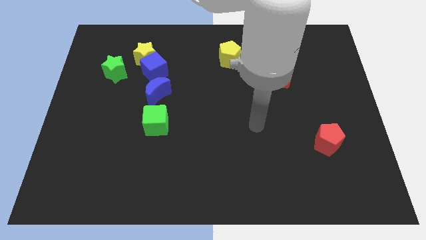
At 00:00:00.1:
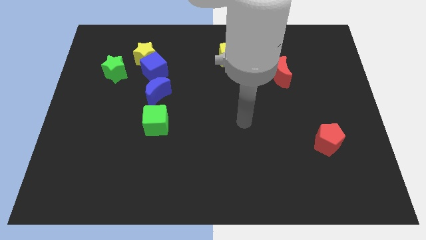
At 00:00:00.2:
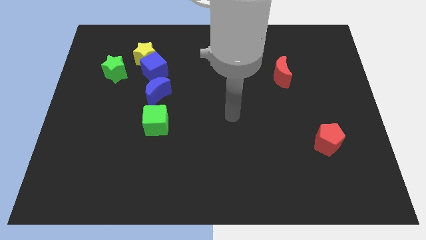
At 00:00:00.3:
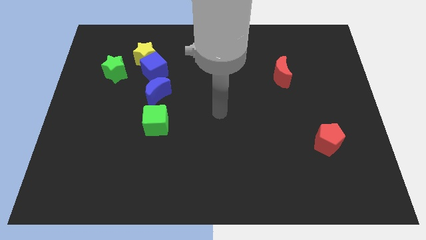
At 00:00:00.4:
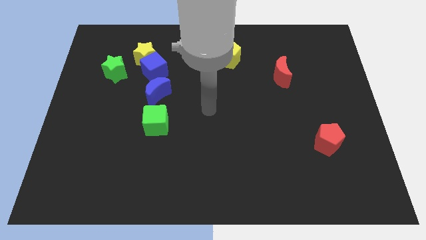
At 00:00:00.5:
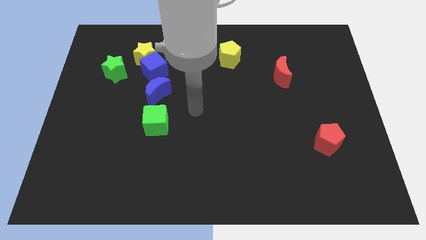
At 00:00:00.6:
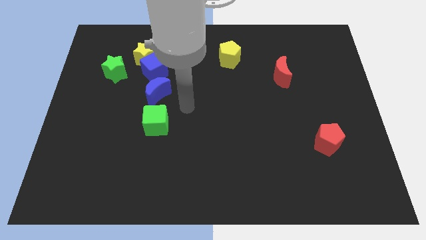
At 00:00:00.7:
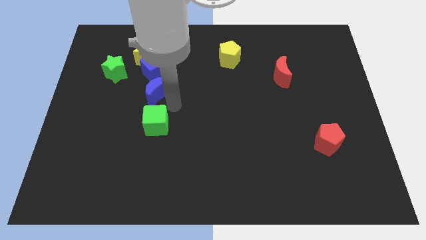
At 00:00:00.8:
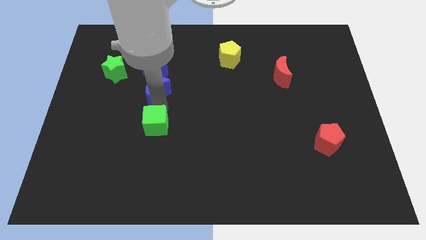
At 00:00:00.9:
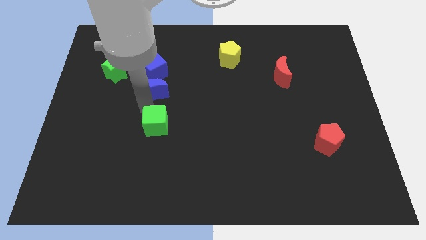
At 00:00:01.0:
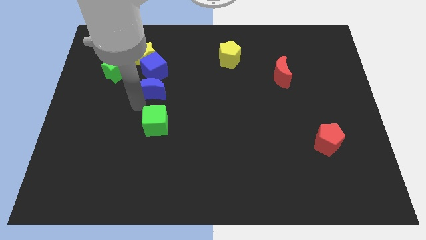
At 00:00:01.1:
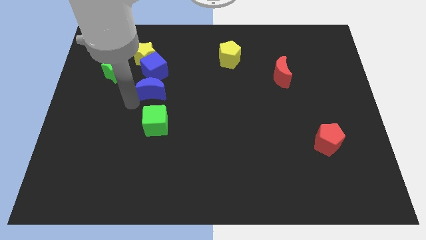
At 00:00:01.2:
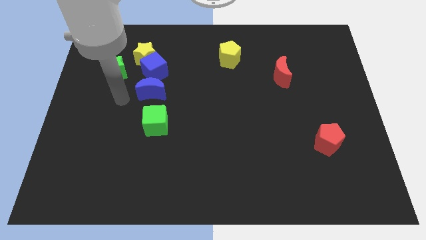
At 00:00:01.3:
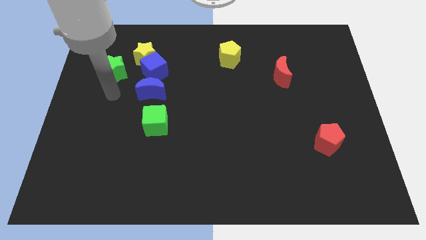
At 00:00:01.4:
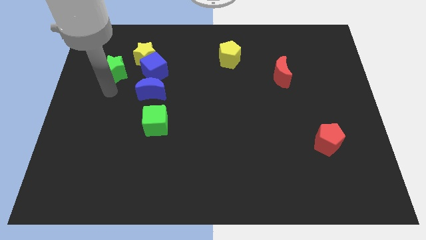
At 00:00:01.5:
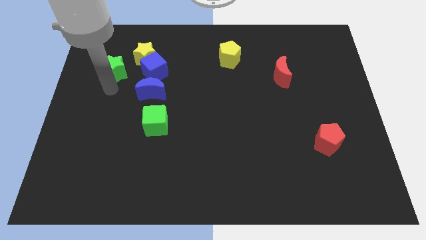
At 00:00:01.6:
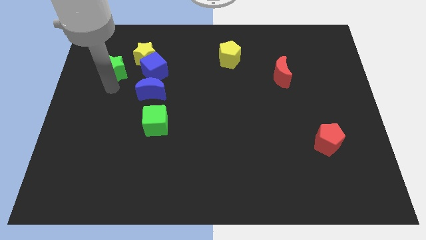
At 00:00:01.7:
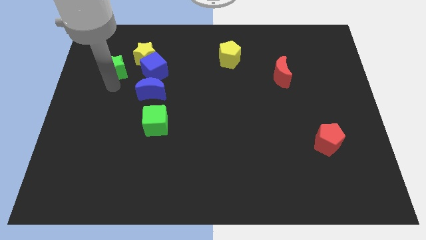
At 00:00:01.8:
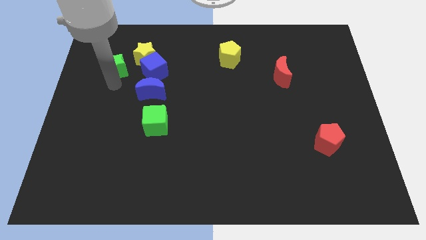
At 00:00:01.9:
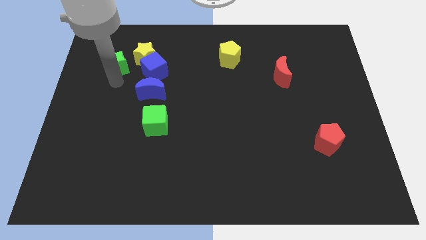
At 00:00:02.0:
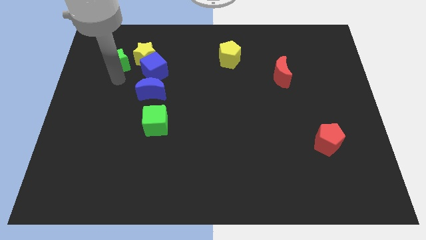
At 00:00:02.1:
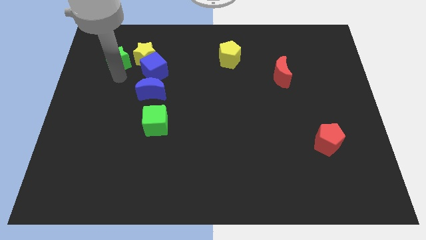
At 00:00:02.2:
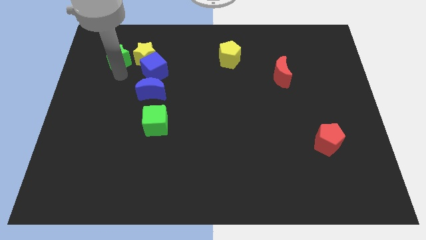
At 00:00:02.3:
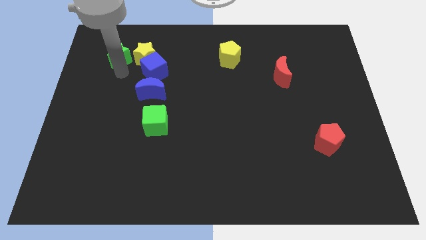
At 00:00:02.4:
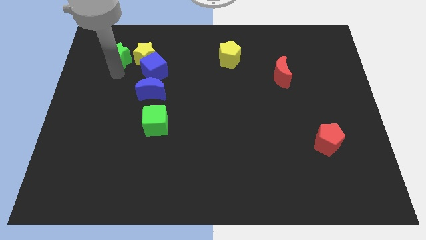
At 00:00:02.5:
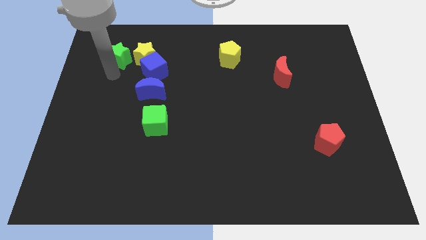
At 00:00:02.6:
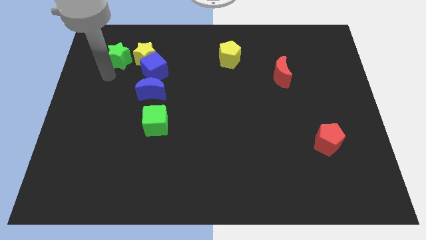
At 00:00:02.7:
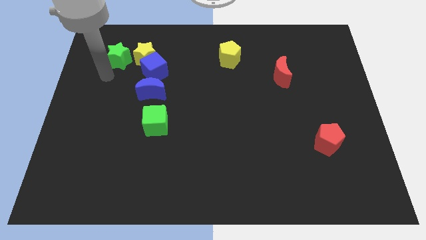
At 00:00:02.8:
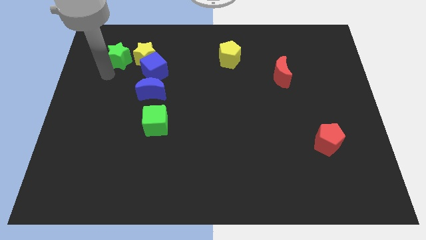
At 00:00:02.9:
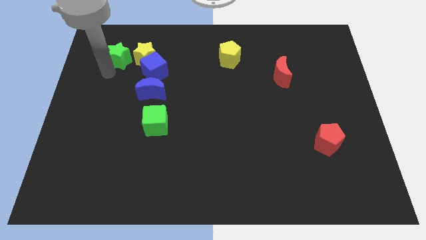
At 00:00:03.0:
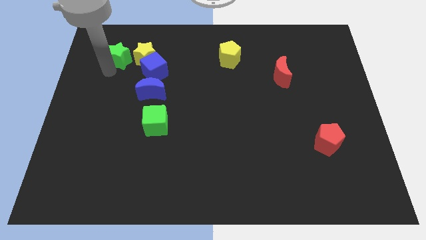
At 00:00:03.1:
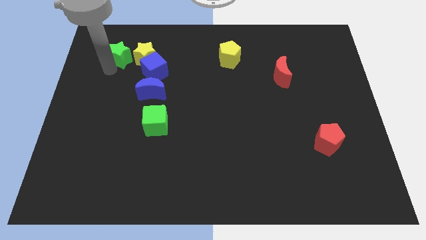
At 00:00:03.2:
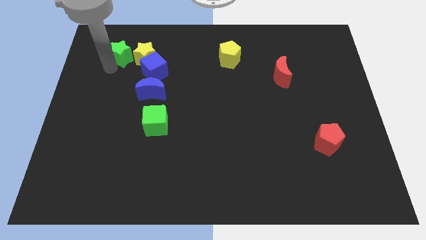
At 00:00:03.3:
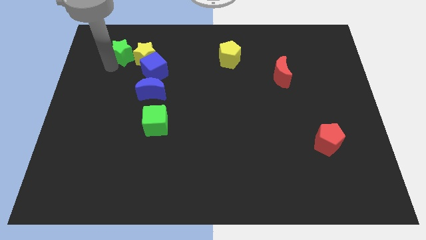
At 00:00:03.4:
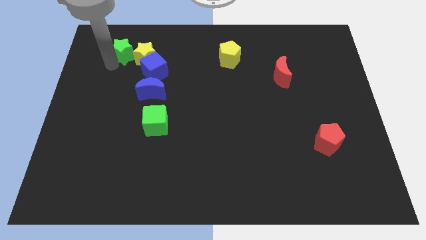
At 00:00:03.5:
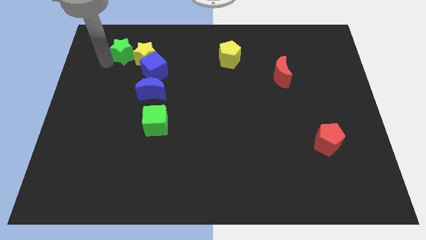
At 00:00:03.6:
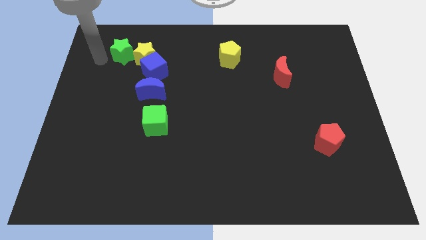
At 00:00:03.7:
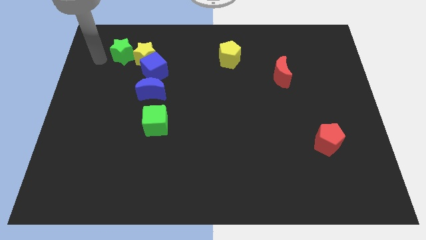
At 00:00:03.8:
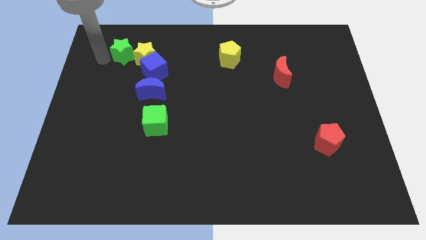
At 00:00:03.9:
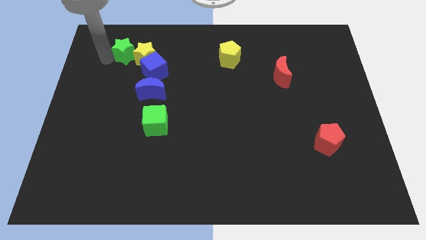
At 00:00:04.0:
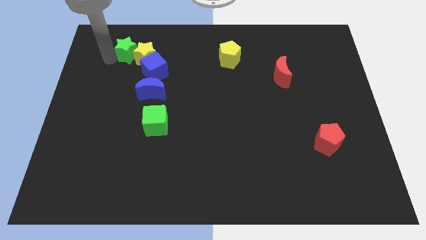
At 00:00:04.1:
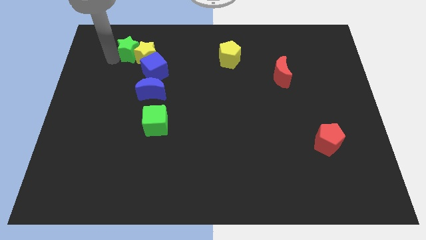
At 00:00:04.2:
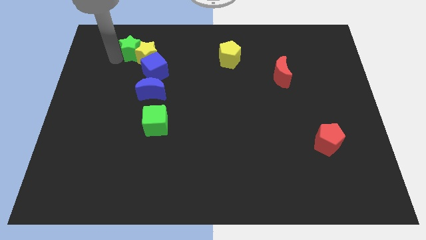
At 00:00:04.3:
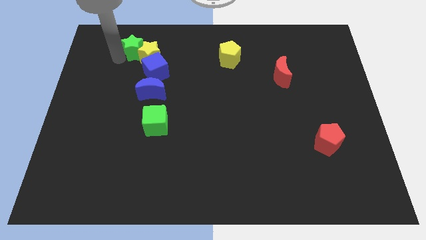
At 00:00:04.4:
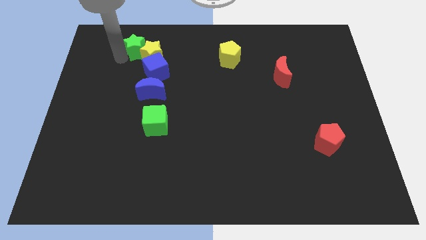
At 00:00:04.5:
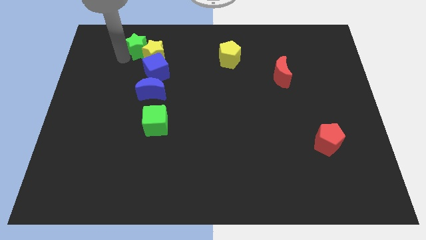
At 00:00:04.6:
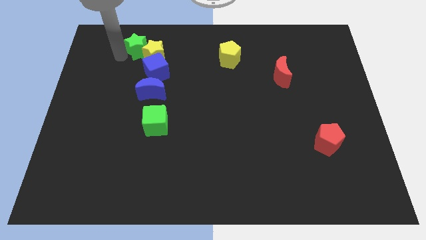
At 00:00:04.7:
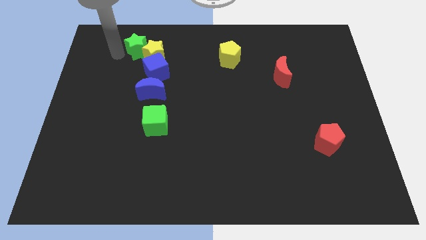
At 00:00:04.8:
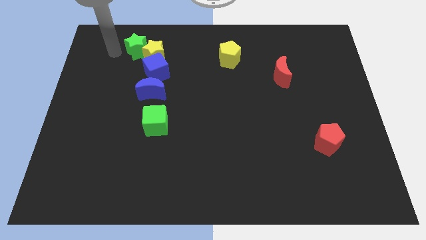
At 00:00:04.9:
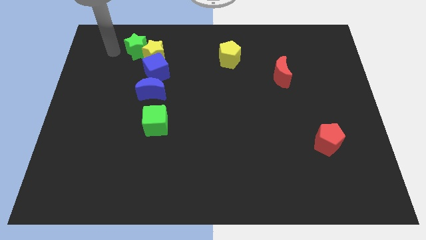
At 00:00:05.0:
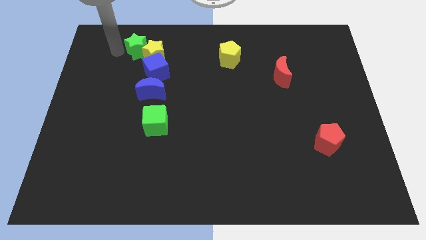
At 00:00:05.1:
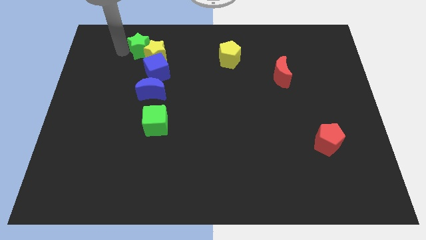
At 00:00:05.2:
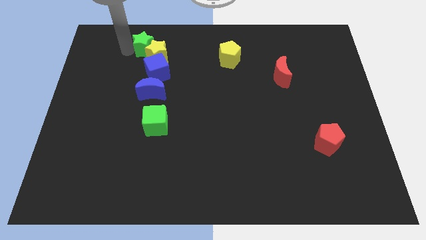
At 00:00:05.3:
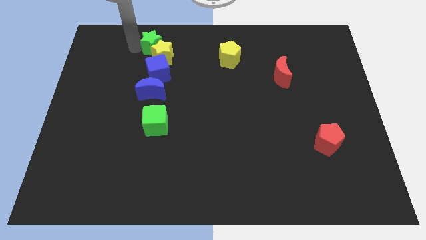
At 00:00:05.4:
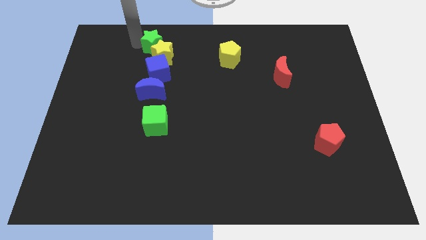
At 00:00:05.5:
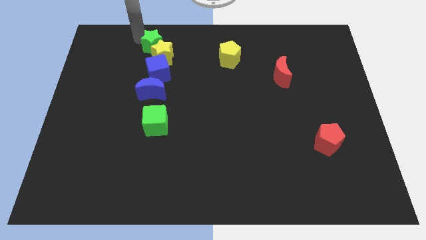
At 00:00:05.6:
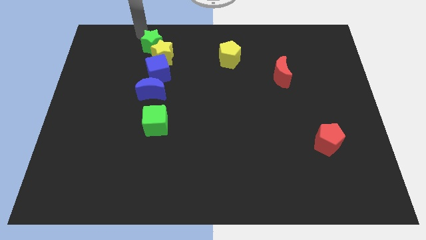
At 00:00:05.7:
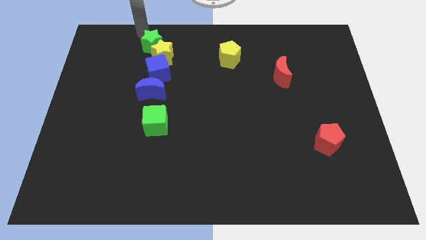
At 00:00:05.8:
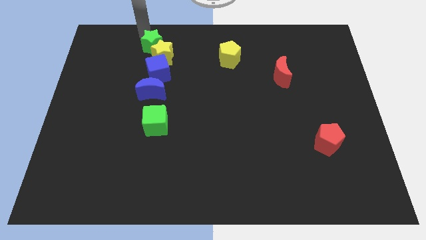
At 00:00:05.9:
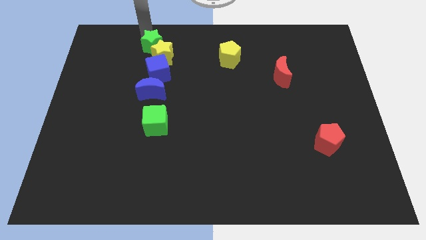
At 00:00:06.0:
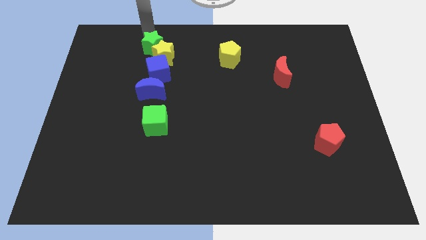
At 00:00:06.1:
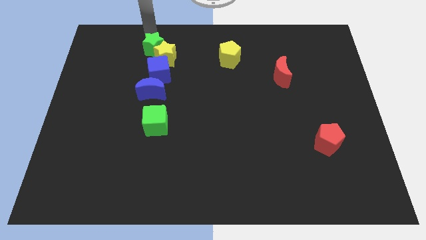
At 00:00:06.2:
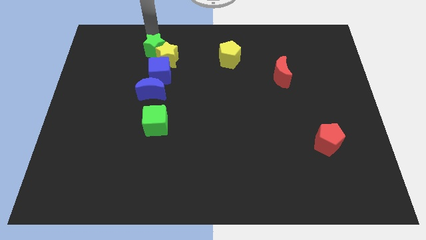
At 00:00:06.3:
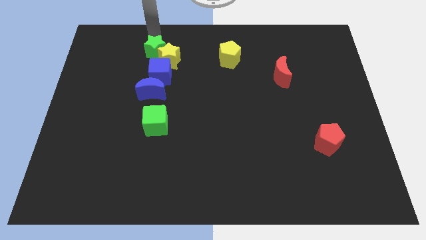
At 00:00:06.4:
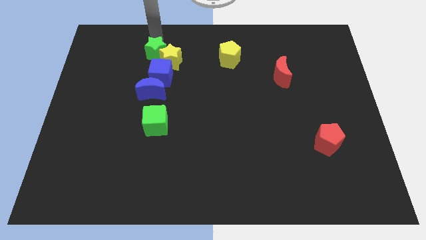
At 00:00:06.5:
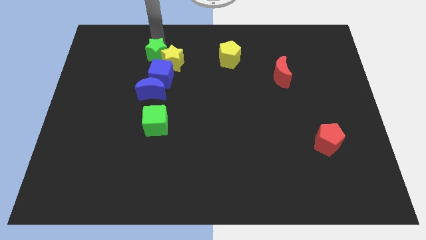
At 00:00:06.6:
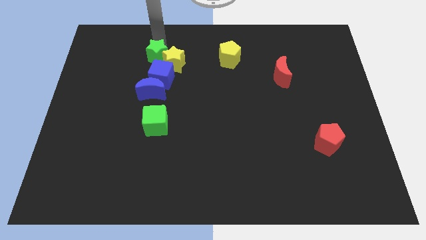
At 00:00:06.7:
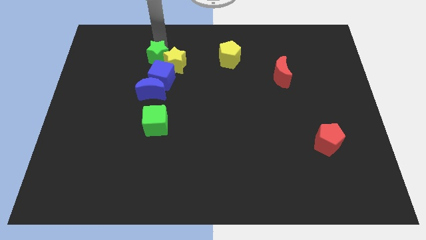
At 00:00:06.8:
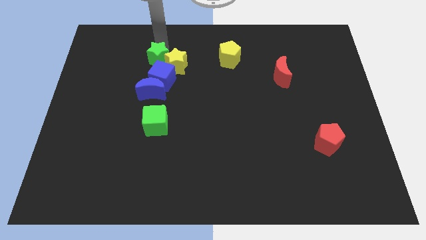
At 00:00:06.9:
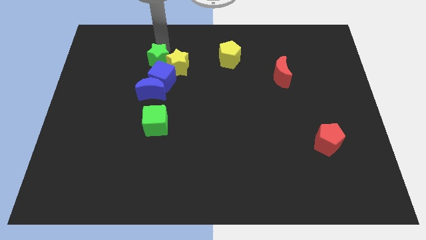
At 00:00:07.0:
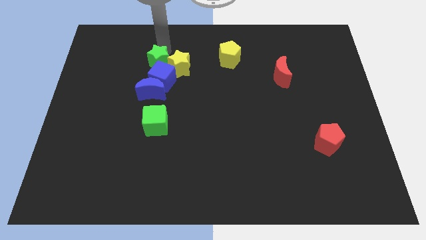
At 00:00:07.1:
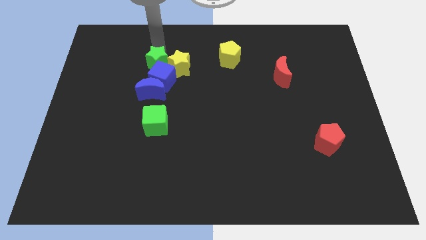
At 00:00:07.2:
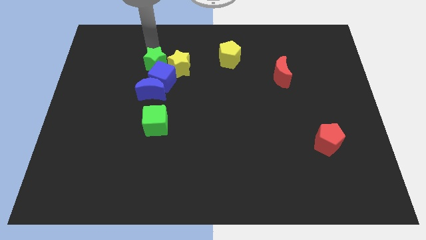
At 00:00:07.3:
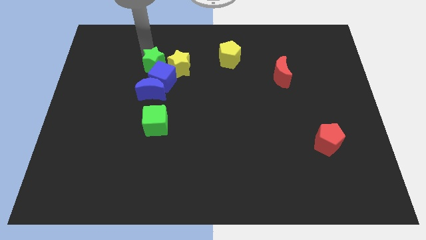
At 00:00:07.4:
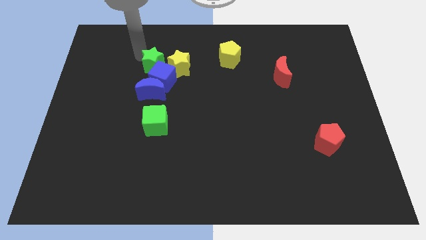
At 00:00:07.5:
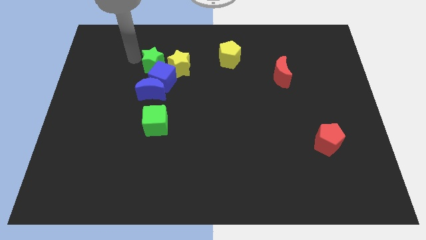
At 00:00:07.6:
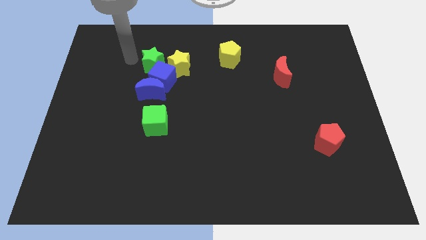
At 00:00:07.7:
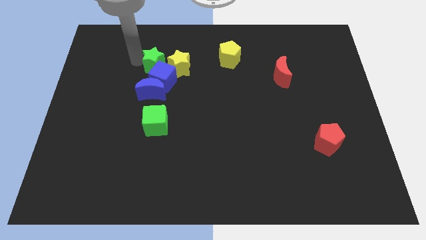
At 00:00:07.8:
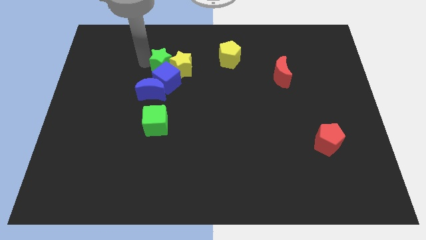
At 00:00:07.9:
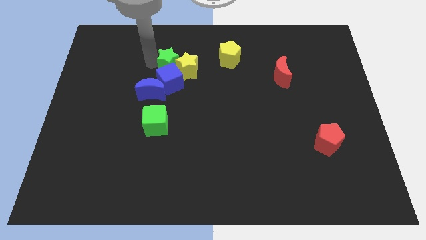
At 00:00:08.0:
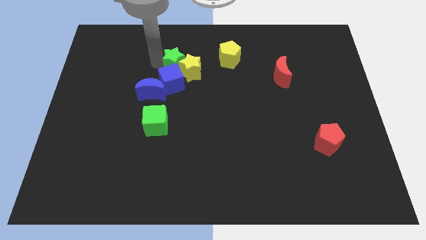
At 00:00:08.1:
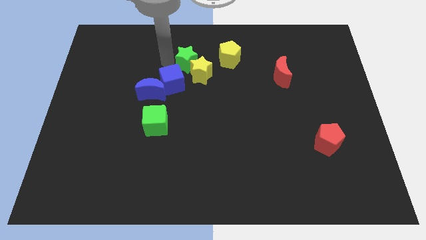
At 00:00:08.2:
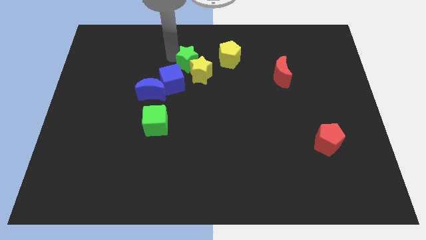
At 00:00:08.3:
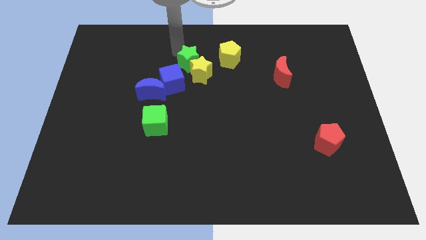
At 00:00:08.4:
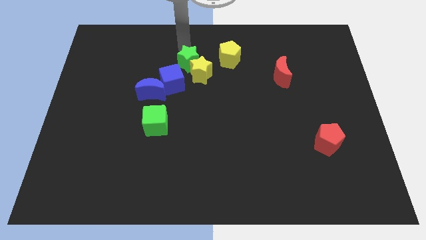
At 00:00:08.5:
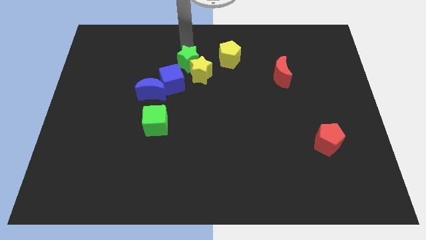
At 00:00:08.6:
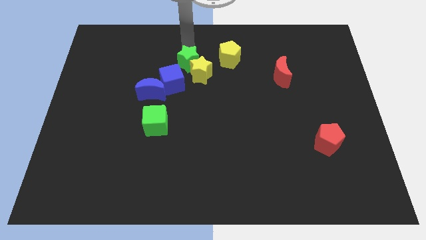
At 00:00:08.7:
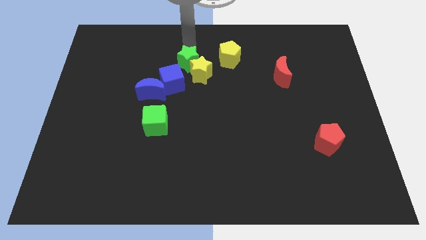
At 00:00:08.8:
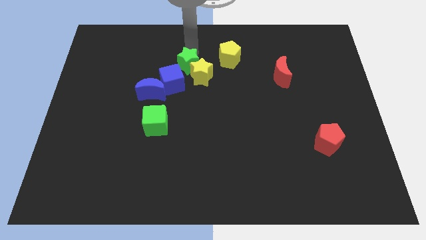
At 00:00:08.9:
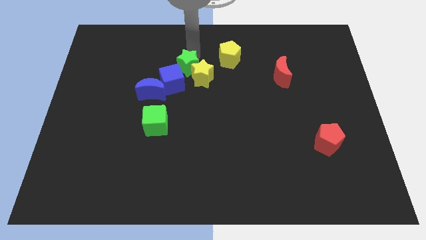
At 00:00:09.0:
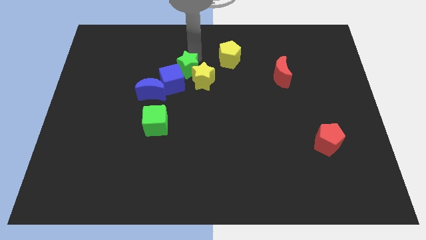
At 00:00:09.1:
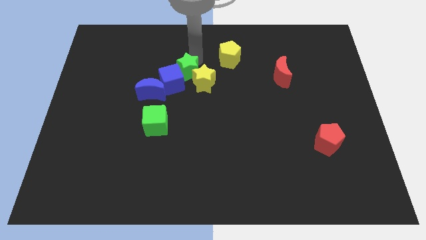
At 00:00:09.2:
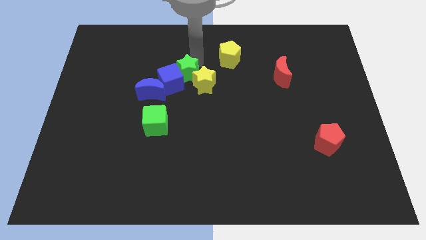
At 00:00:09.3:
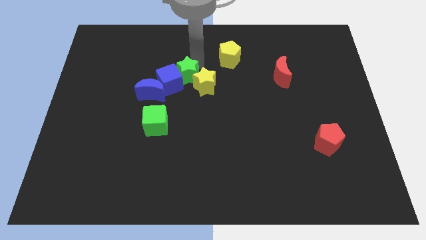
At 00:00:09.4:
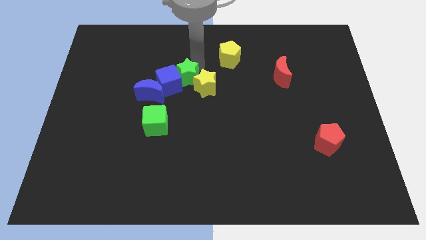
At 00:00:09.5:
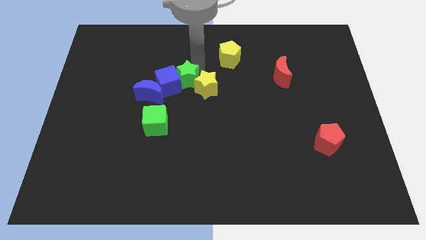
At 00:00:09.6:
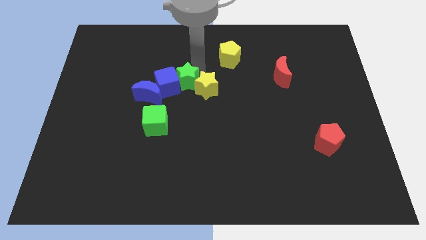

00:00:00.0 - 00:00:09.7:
slide the green star just right of the blue moon
